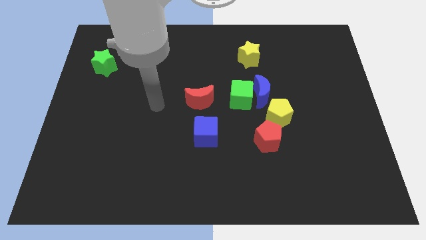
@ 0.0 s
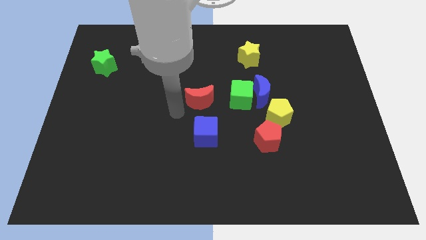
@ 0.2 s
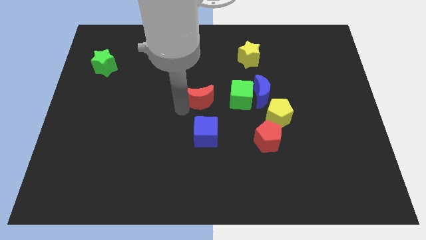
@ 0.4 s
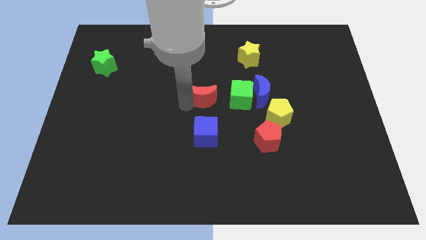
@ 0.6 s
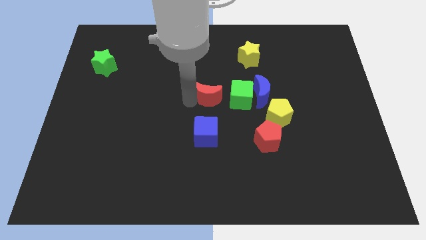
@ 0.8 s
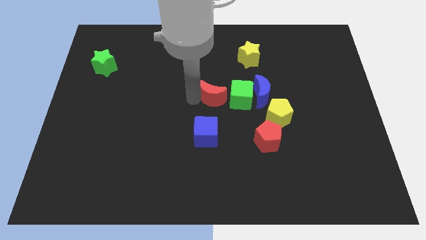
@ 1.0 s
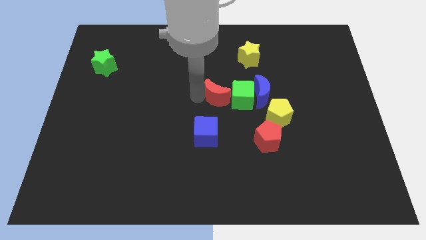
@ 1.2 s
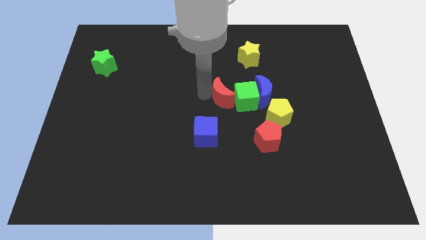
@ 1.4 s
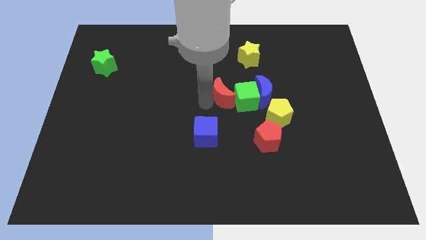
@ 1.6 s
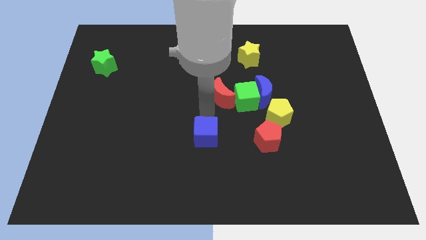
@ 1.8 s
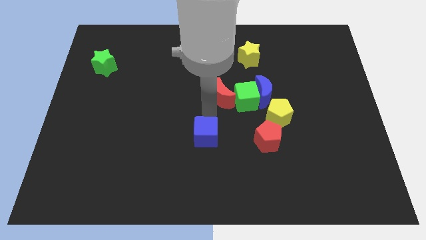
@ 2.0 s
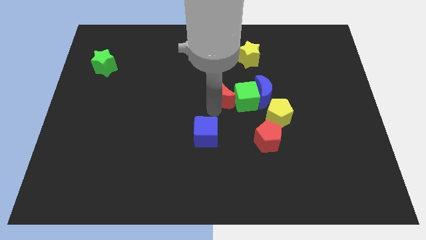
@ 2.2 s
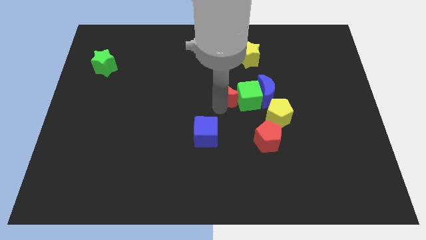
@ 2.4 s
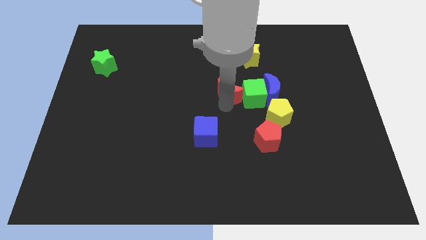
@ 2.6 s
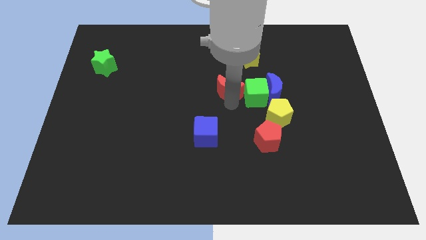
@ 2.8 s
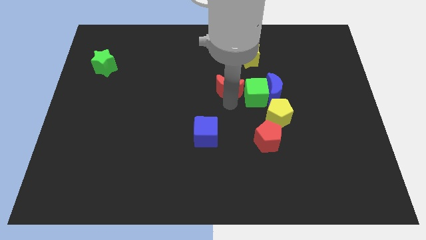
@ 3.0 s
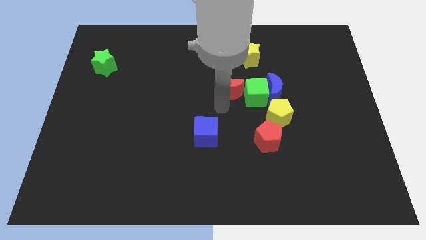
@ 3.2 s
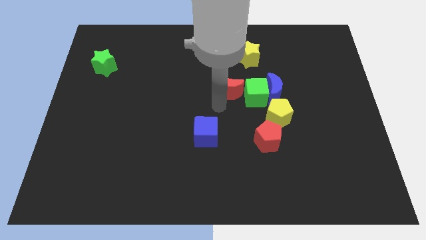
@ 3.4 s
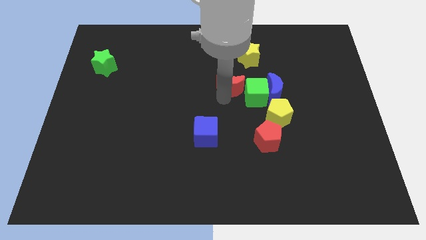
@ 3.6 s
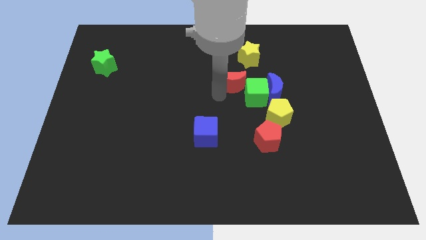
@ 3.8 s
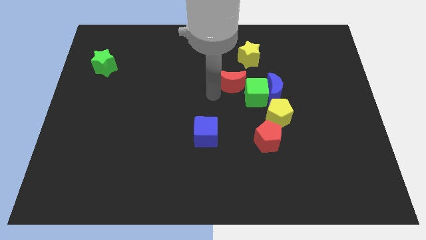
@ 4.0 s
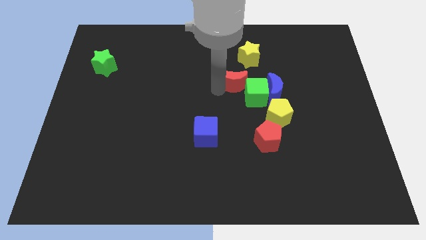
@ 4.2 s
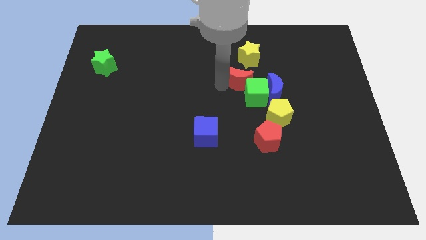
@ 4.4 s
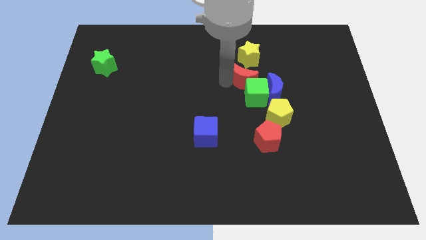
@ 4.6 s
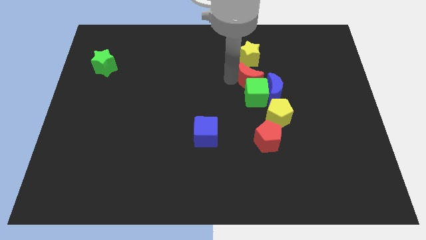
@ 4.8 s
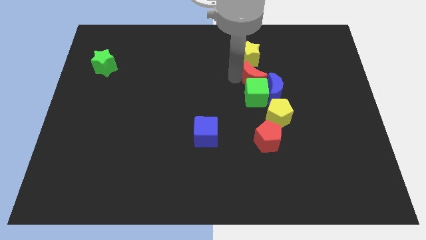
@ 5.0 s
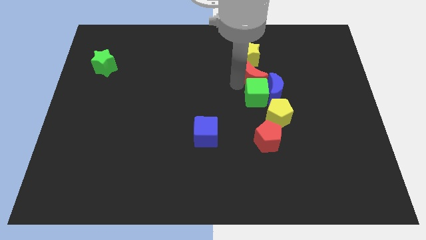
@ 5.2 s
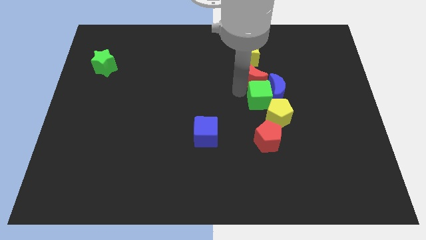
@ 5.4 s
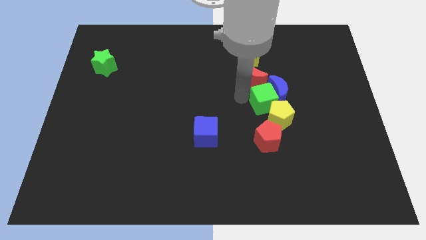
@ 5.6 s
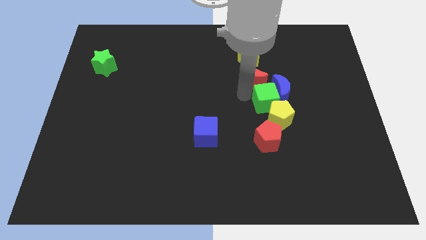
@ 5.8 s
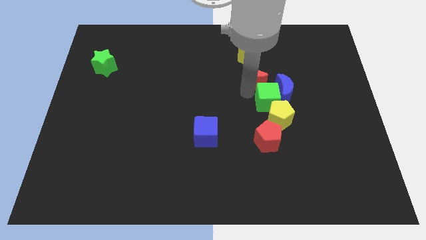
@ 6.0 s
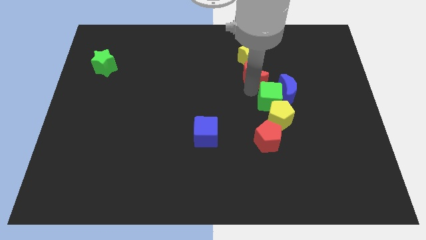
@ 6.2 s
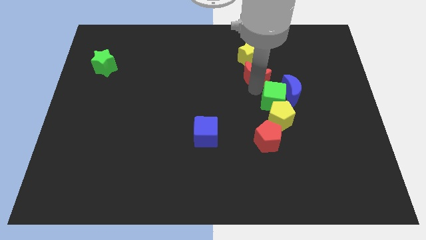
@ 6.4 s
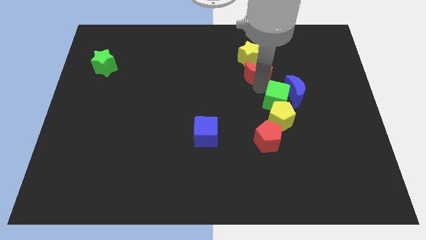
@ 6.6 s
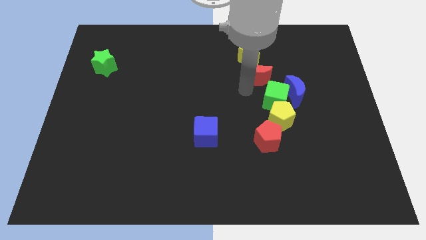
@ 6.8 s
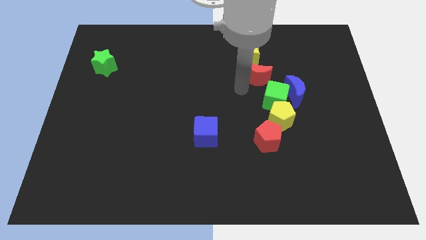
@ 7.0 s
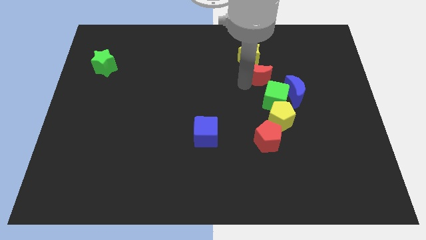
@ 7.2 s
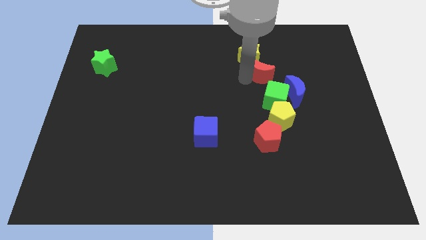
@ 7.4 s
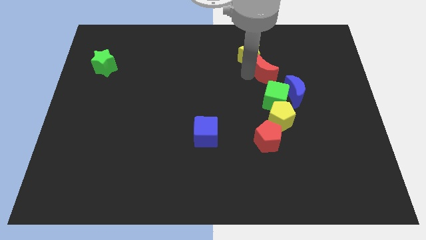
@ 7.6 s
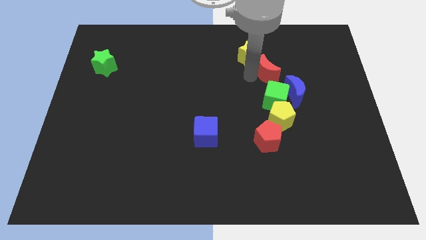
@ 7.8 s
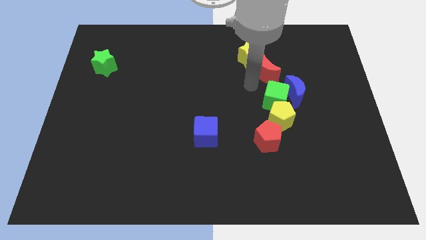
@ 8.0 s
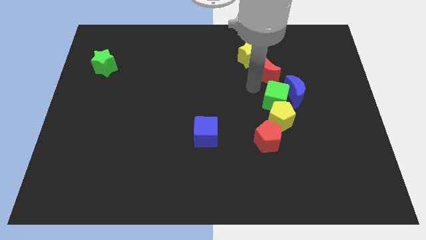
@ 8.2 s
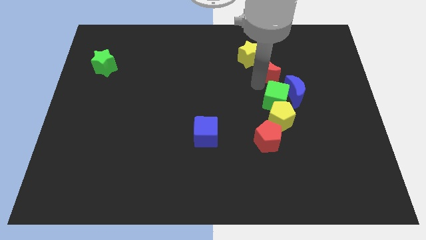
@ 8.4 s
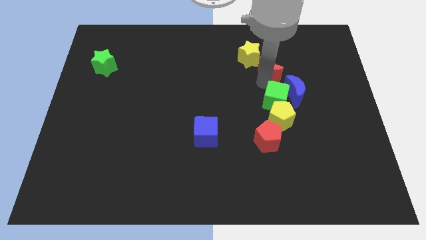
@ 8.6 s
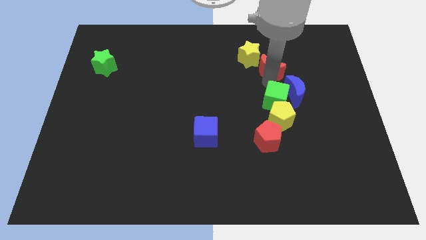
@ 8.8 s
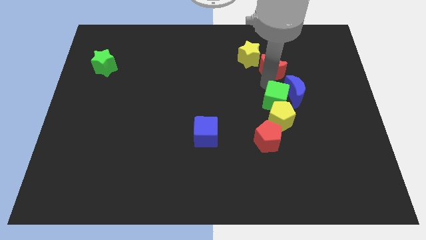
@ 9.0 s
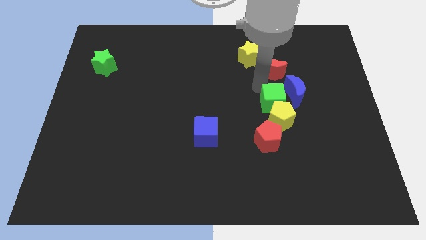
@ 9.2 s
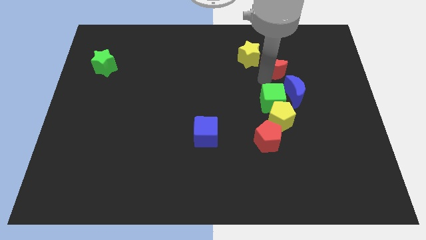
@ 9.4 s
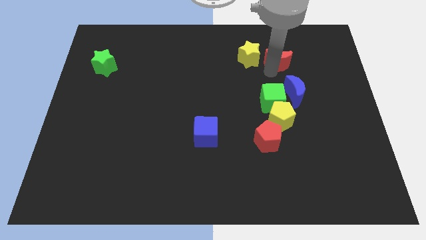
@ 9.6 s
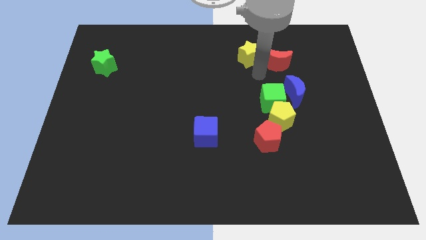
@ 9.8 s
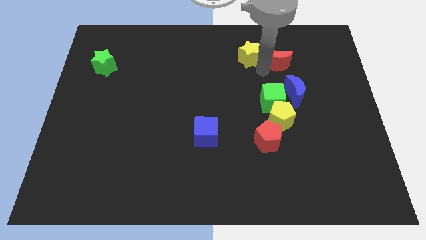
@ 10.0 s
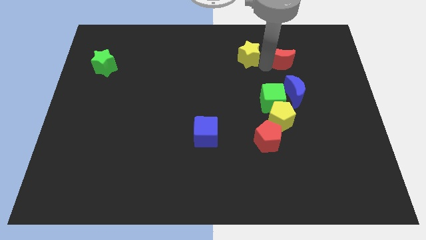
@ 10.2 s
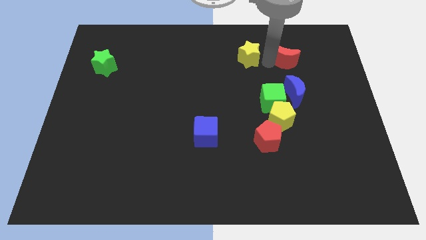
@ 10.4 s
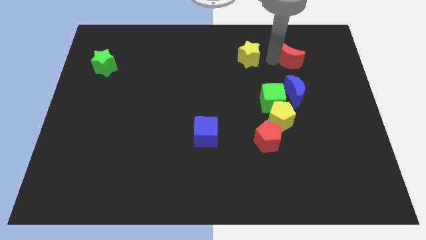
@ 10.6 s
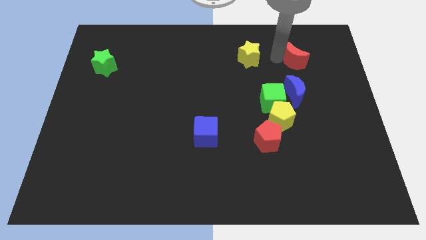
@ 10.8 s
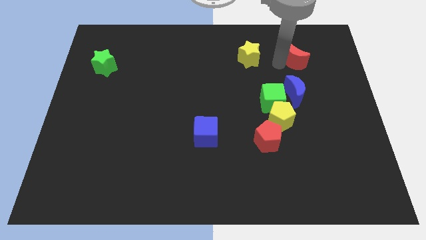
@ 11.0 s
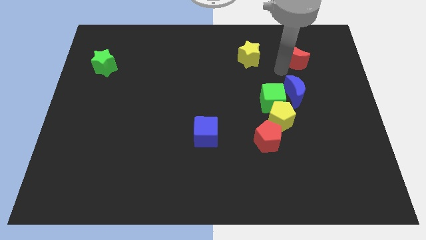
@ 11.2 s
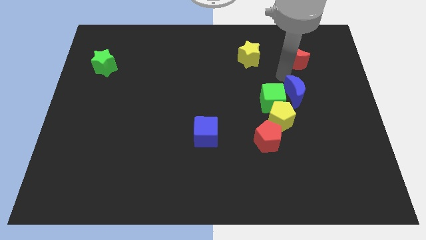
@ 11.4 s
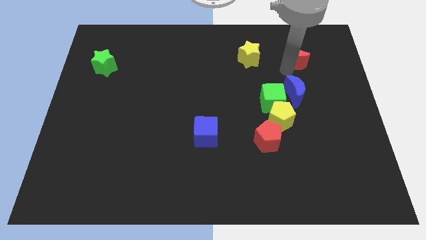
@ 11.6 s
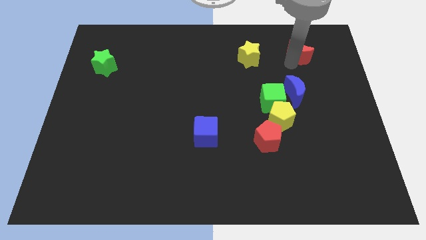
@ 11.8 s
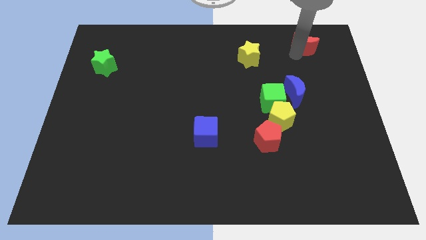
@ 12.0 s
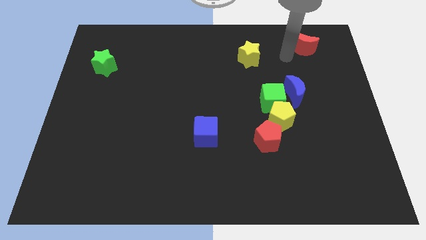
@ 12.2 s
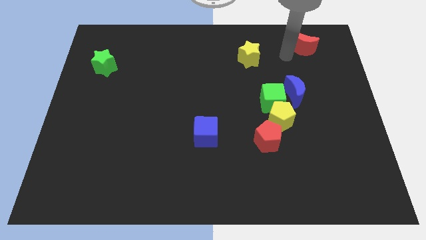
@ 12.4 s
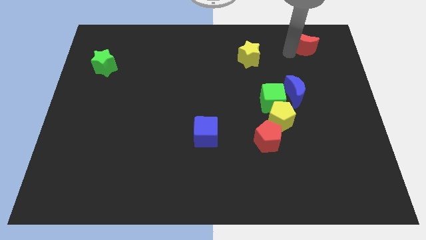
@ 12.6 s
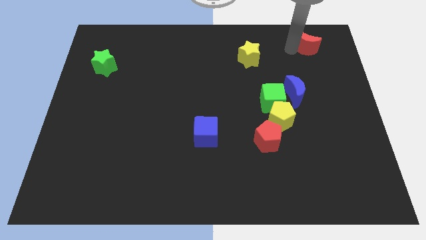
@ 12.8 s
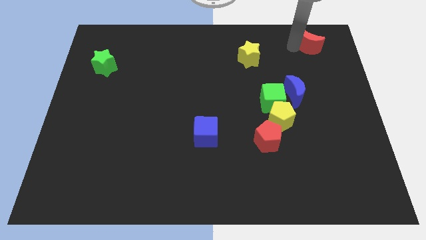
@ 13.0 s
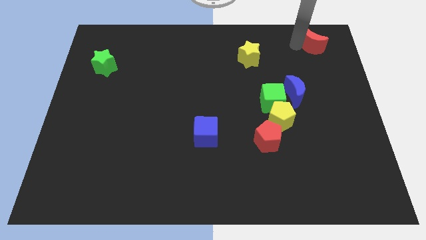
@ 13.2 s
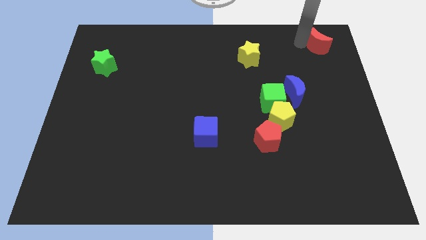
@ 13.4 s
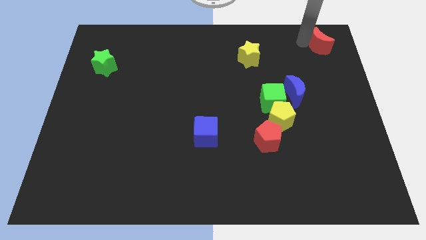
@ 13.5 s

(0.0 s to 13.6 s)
move the red moon to the top right of the board
